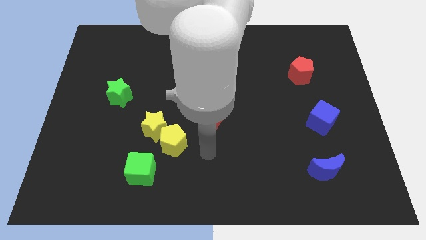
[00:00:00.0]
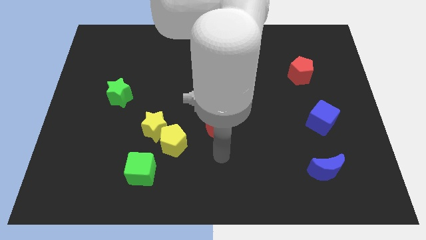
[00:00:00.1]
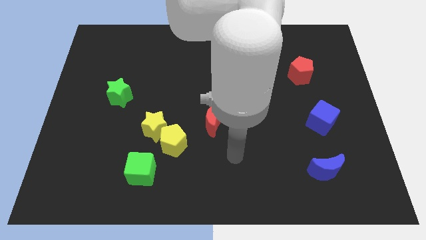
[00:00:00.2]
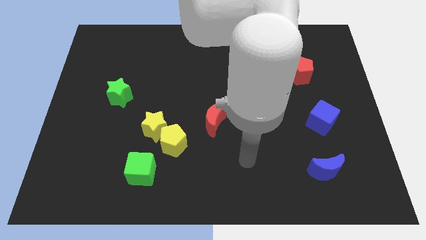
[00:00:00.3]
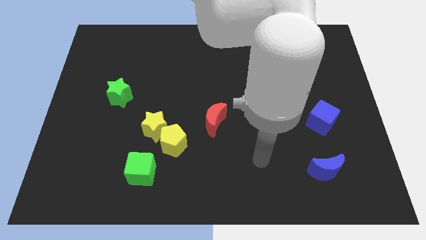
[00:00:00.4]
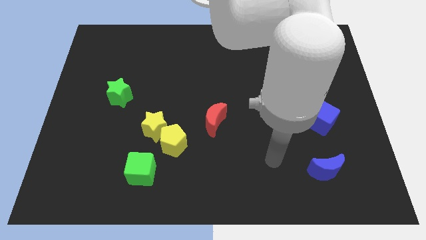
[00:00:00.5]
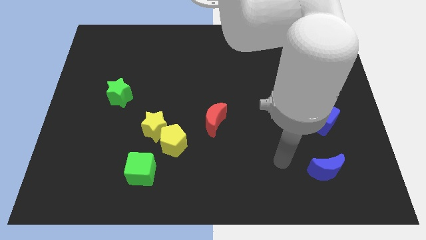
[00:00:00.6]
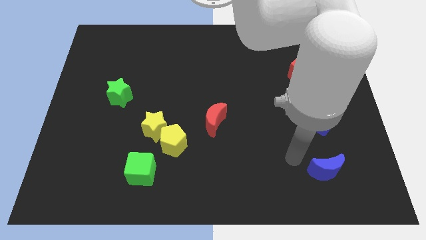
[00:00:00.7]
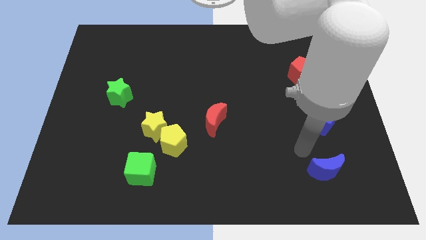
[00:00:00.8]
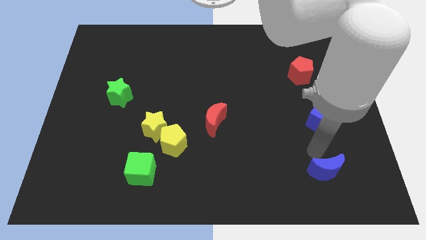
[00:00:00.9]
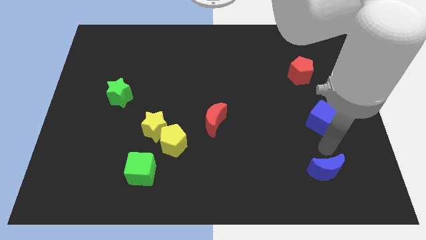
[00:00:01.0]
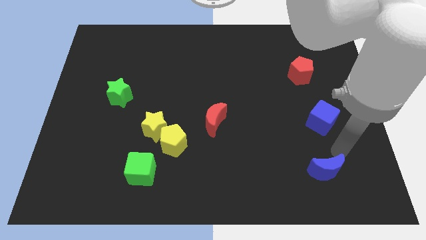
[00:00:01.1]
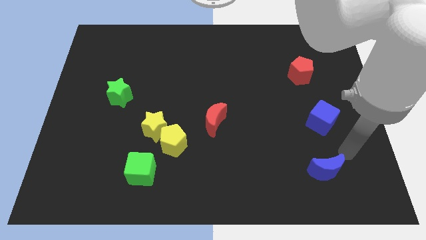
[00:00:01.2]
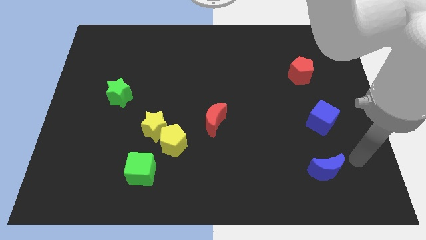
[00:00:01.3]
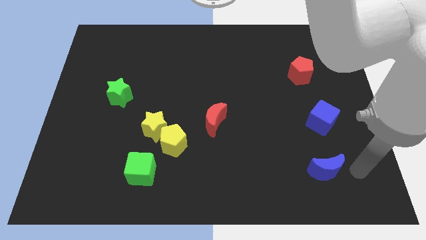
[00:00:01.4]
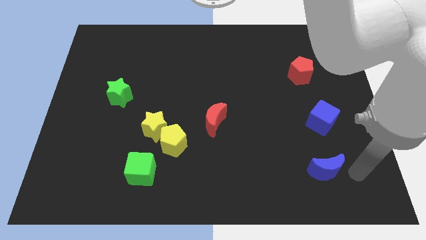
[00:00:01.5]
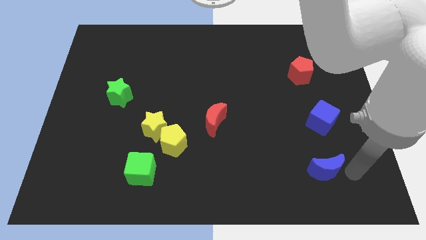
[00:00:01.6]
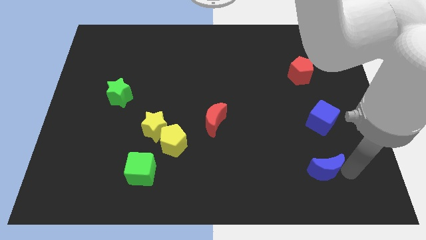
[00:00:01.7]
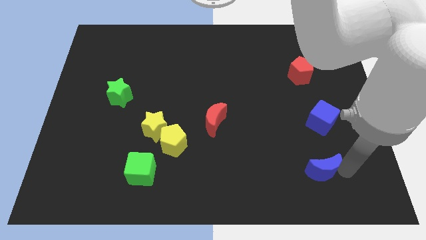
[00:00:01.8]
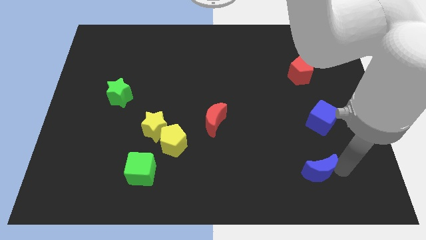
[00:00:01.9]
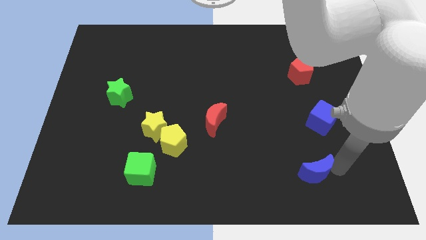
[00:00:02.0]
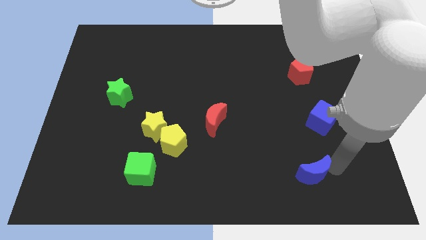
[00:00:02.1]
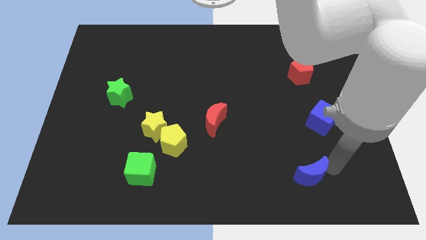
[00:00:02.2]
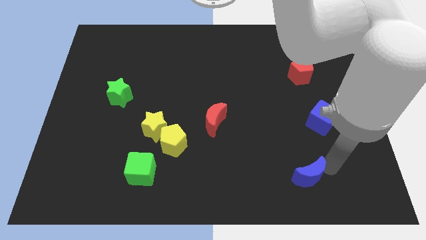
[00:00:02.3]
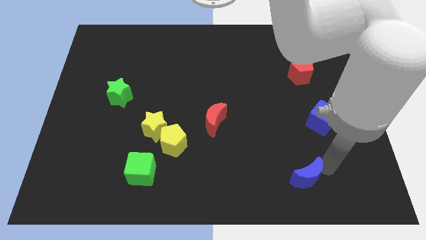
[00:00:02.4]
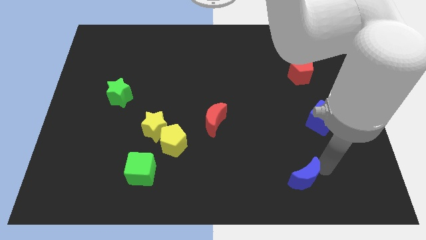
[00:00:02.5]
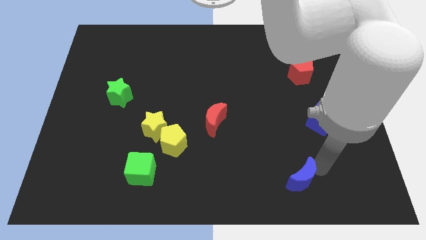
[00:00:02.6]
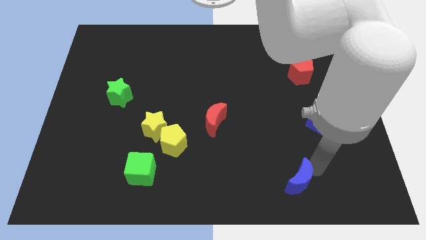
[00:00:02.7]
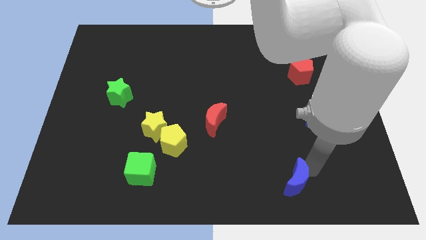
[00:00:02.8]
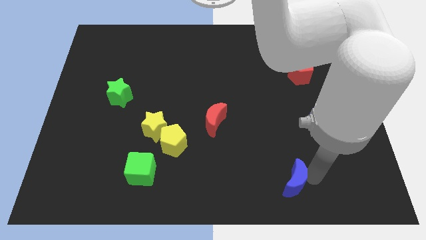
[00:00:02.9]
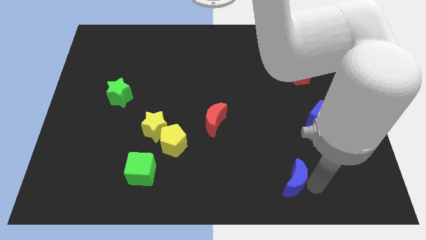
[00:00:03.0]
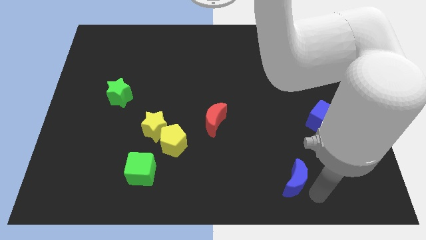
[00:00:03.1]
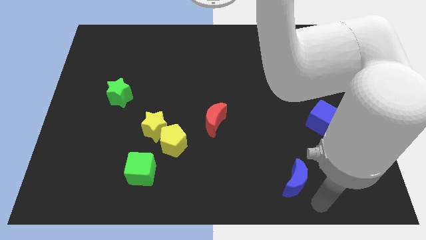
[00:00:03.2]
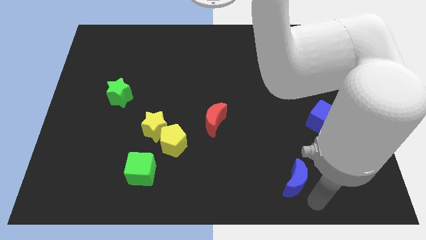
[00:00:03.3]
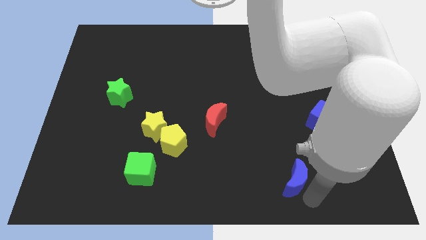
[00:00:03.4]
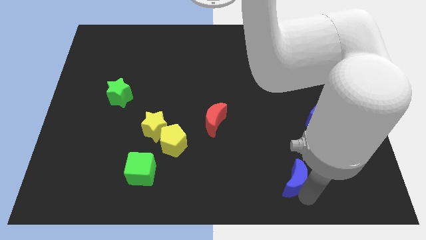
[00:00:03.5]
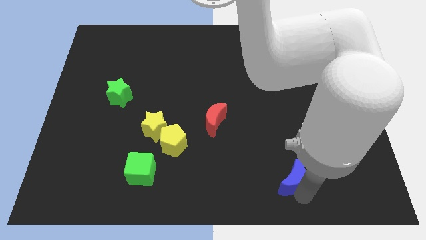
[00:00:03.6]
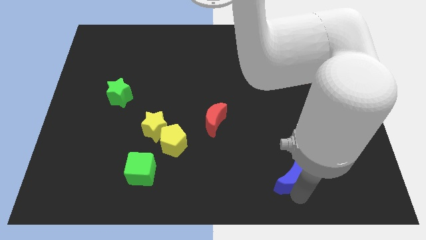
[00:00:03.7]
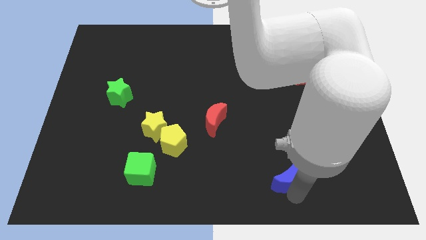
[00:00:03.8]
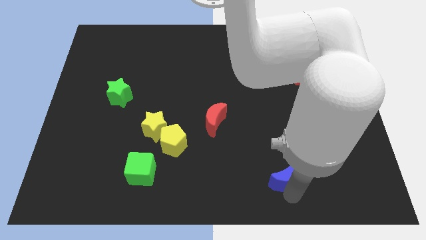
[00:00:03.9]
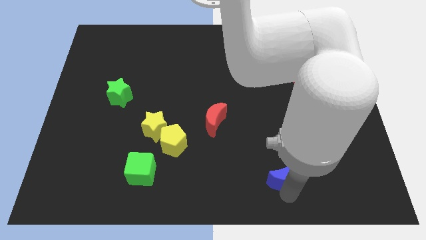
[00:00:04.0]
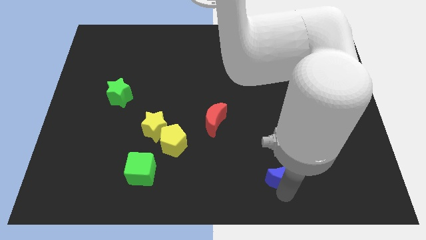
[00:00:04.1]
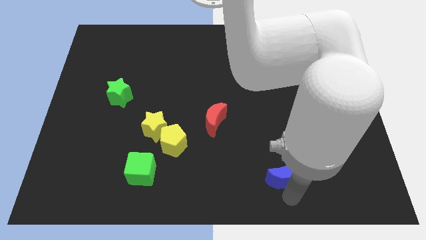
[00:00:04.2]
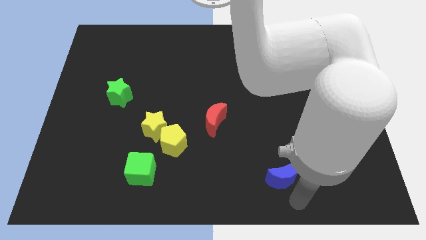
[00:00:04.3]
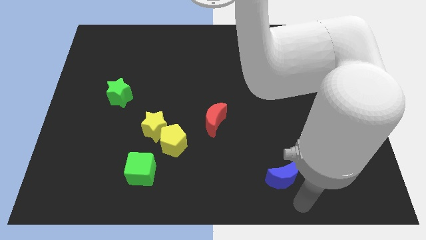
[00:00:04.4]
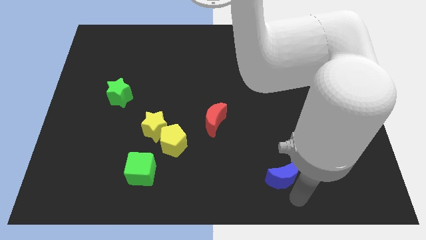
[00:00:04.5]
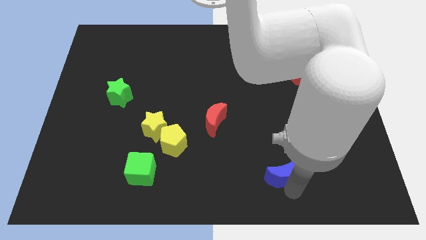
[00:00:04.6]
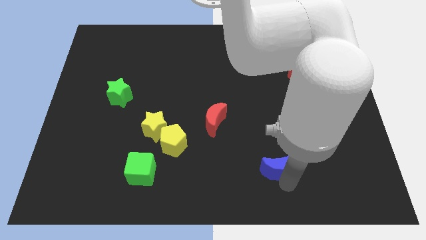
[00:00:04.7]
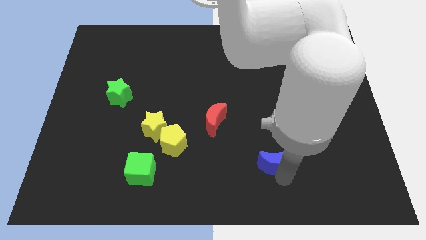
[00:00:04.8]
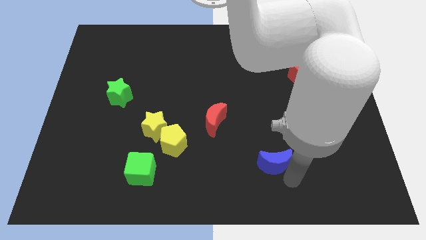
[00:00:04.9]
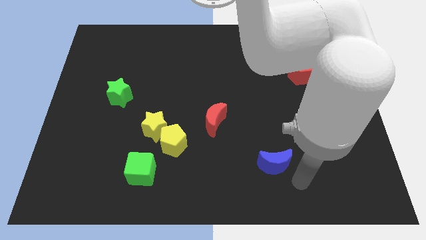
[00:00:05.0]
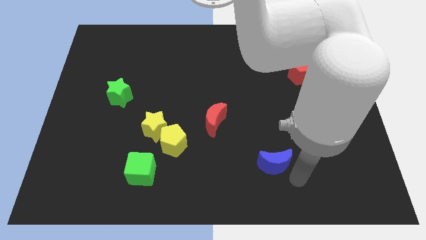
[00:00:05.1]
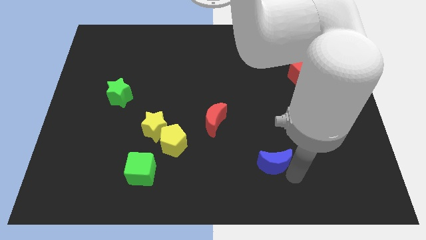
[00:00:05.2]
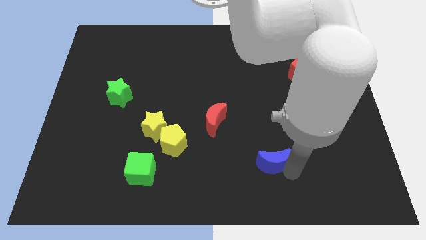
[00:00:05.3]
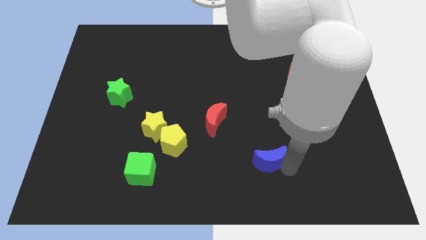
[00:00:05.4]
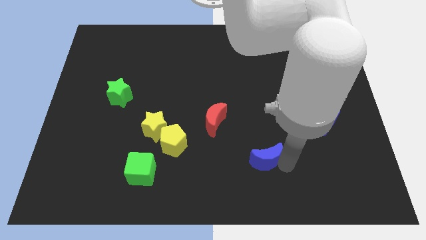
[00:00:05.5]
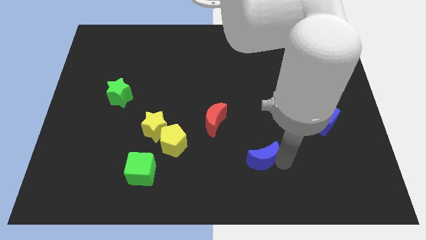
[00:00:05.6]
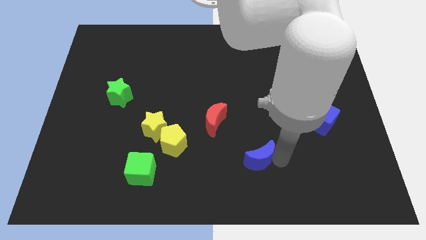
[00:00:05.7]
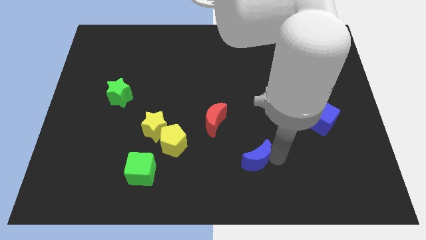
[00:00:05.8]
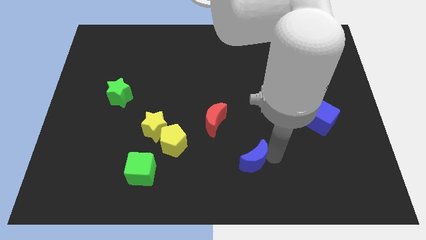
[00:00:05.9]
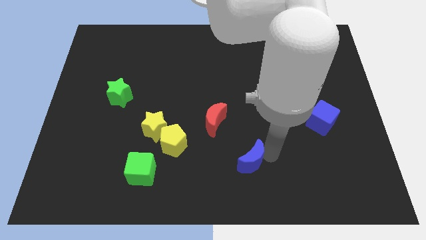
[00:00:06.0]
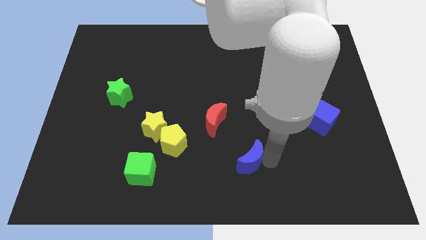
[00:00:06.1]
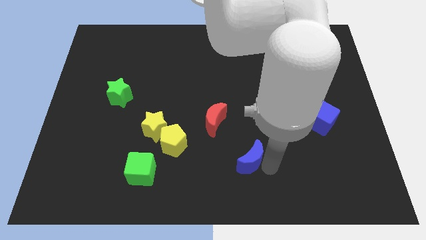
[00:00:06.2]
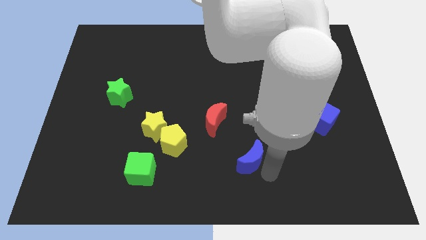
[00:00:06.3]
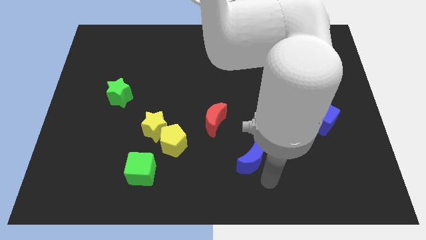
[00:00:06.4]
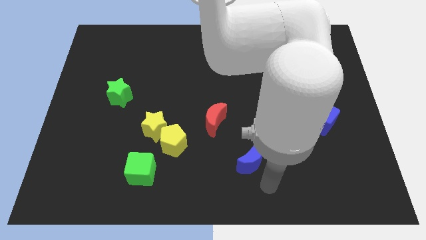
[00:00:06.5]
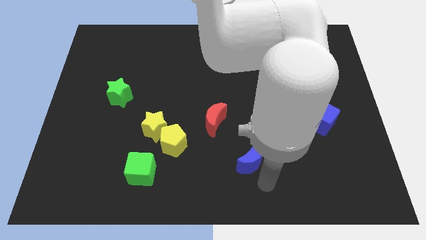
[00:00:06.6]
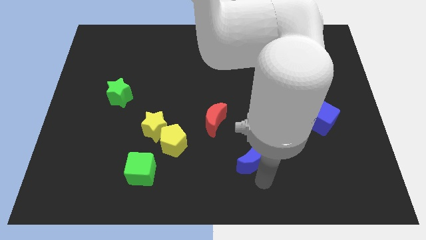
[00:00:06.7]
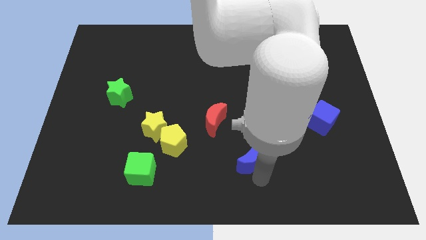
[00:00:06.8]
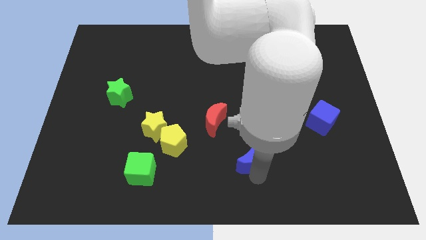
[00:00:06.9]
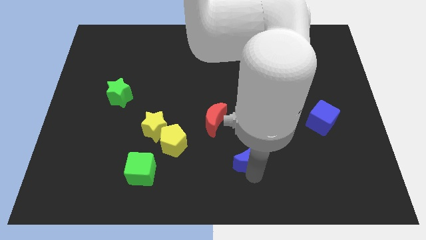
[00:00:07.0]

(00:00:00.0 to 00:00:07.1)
put the blue moon to the bottom right side of the red moon
